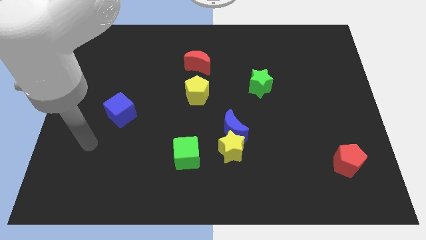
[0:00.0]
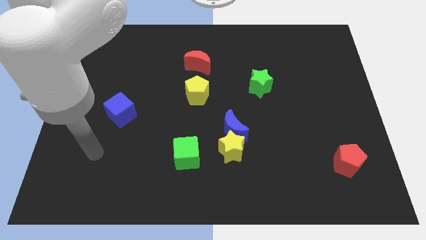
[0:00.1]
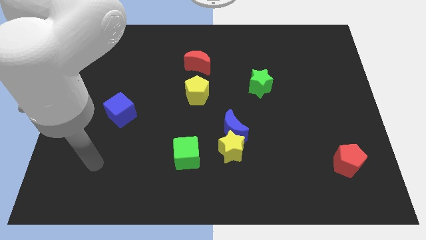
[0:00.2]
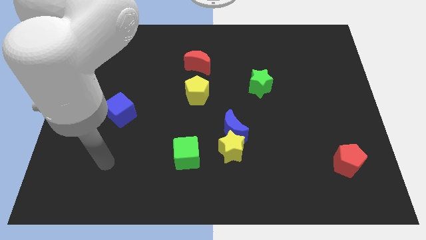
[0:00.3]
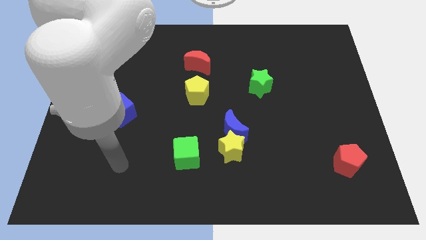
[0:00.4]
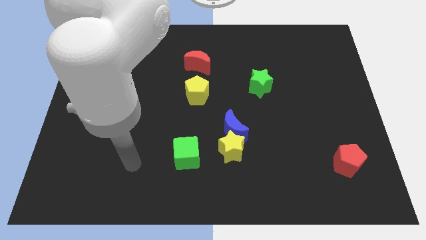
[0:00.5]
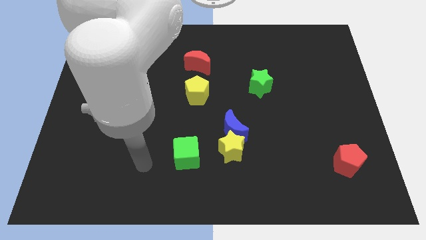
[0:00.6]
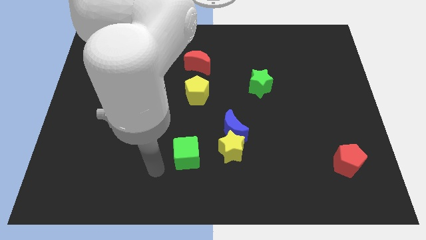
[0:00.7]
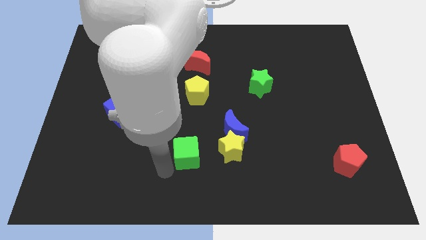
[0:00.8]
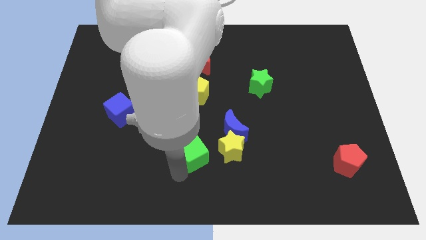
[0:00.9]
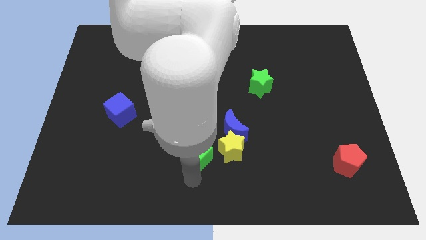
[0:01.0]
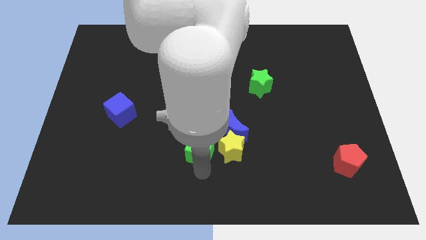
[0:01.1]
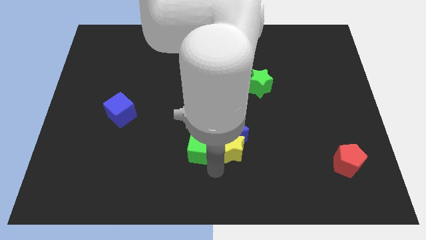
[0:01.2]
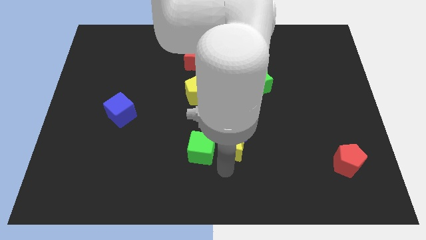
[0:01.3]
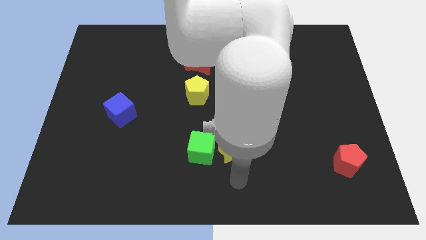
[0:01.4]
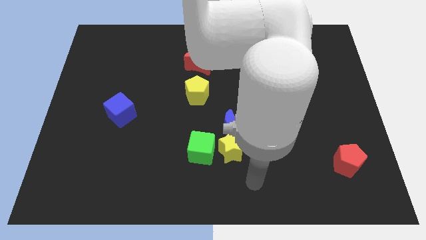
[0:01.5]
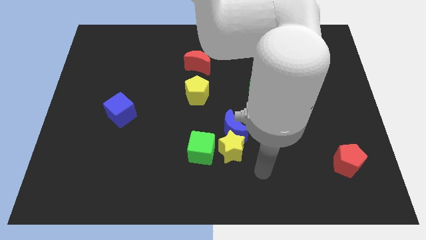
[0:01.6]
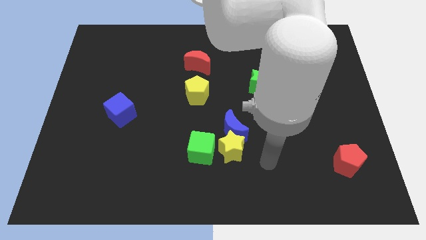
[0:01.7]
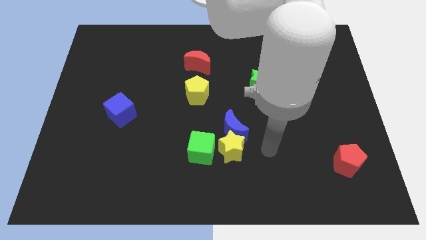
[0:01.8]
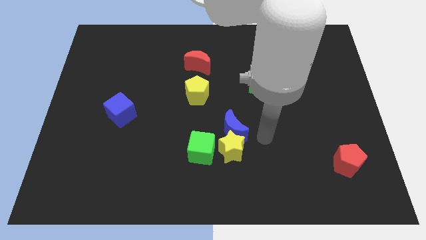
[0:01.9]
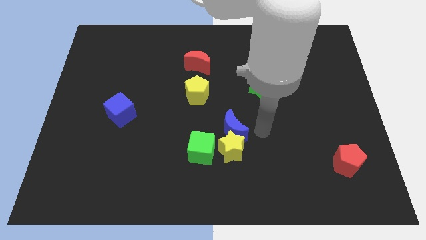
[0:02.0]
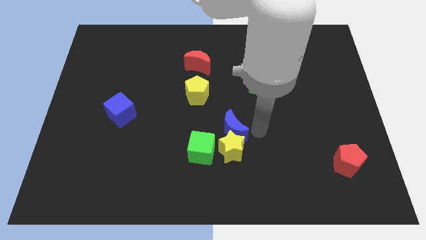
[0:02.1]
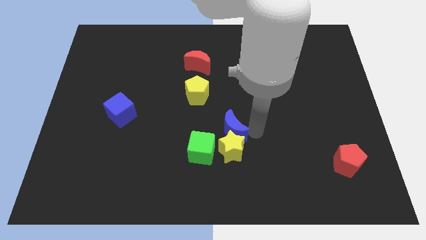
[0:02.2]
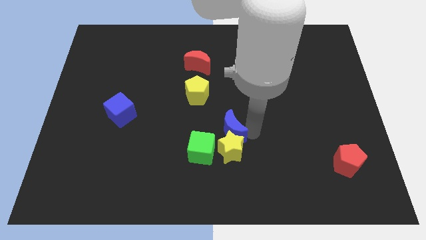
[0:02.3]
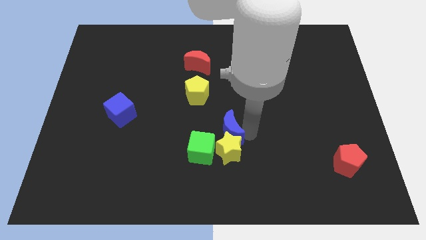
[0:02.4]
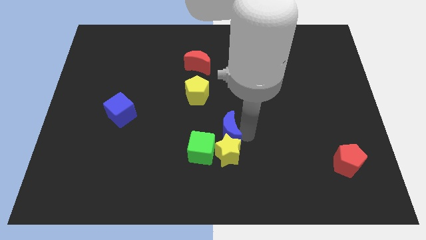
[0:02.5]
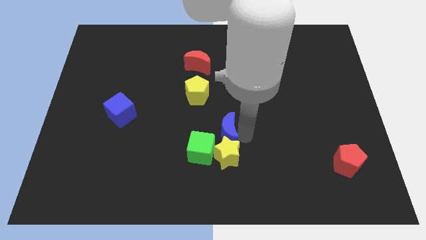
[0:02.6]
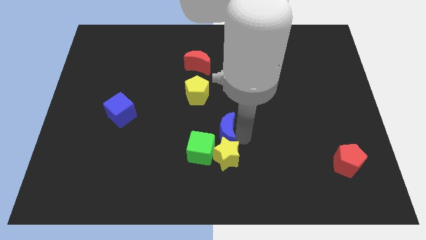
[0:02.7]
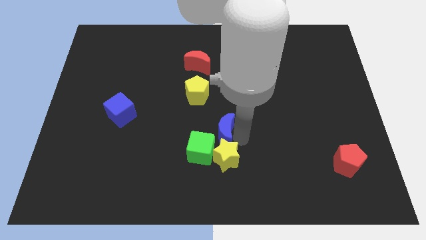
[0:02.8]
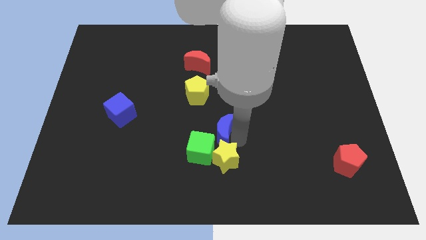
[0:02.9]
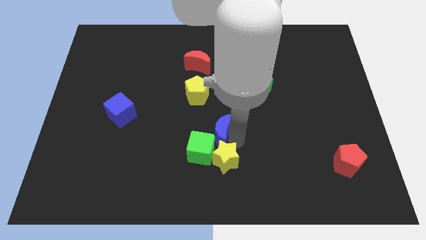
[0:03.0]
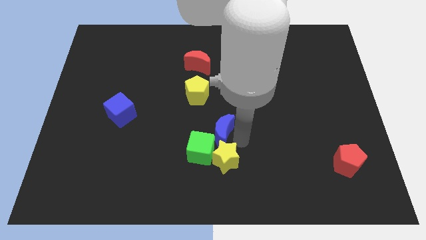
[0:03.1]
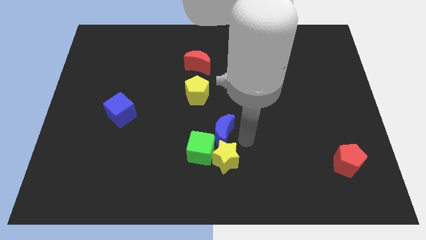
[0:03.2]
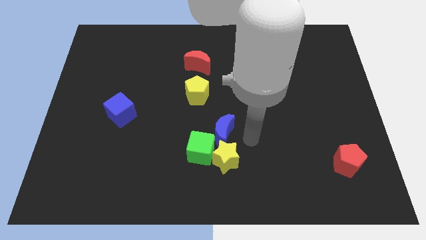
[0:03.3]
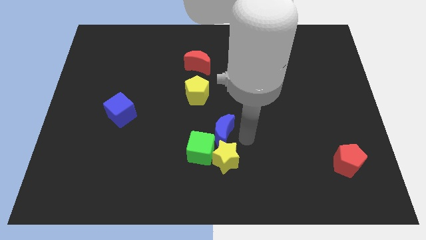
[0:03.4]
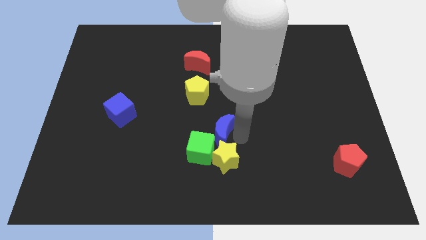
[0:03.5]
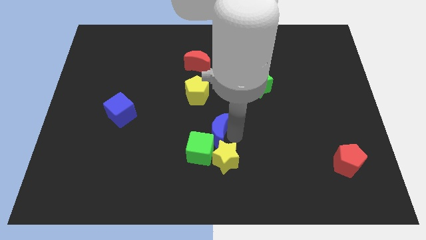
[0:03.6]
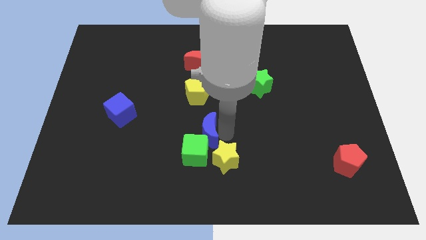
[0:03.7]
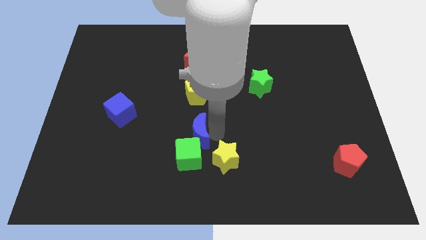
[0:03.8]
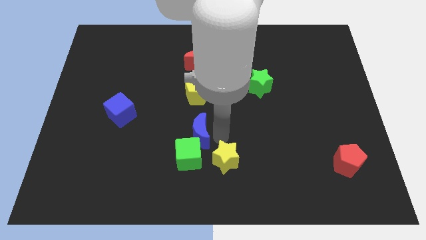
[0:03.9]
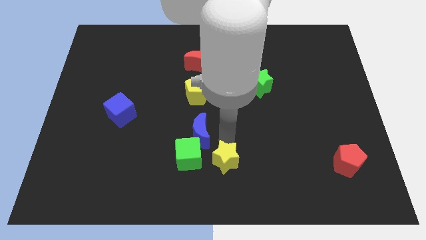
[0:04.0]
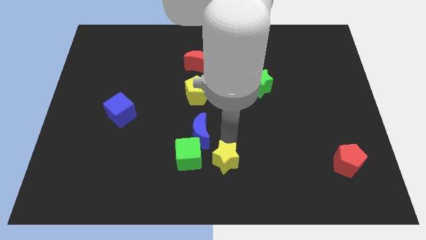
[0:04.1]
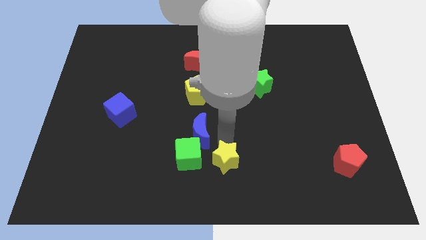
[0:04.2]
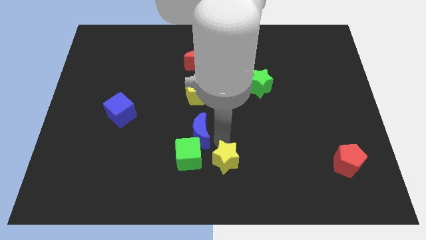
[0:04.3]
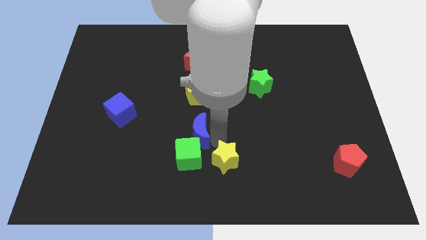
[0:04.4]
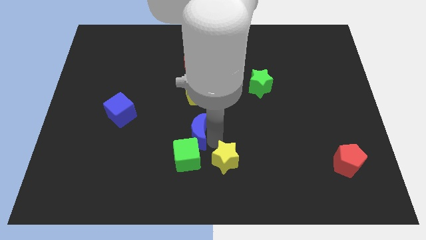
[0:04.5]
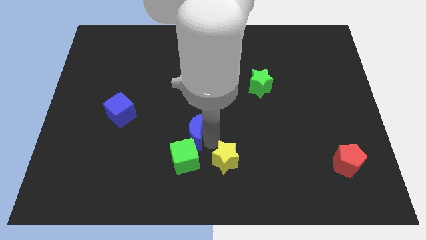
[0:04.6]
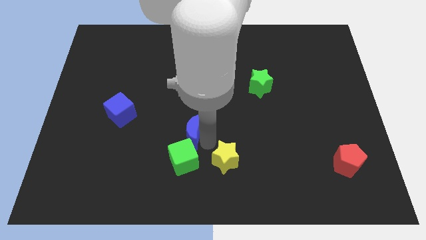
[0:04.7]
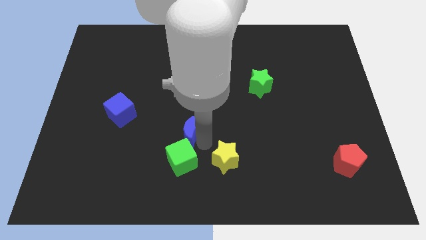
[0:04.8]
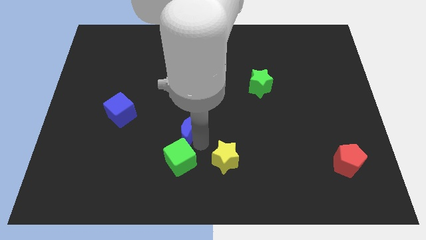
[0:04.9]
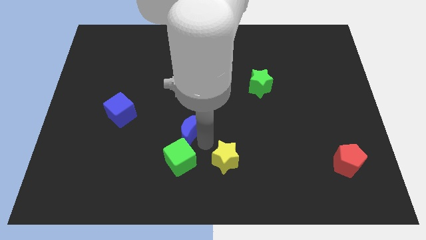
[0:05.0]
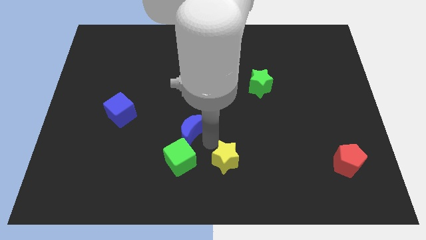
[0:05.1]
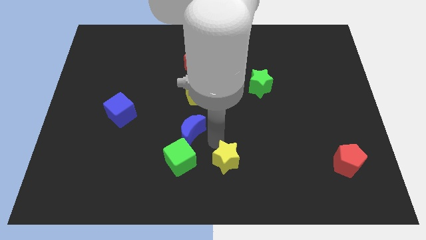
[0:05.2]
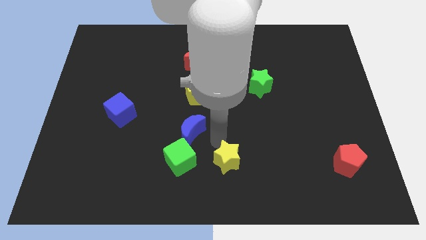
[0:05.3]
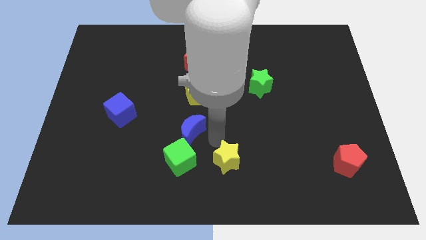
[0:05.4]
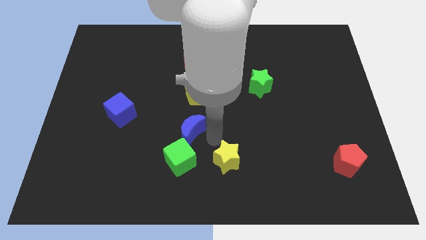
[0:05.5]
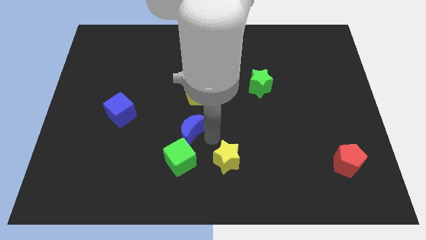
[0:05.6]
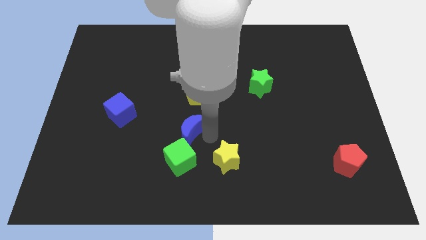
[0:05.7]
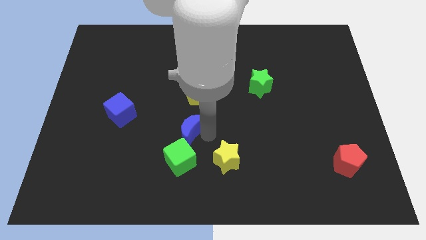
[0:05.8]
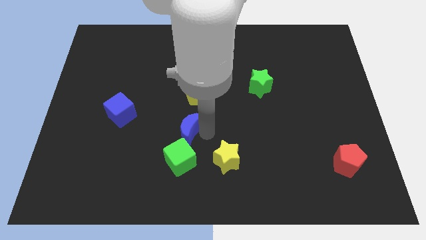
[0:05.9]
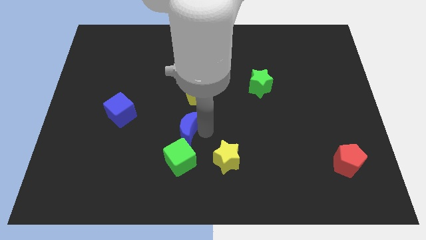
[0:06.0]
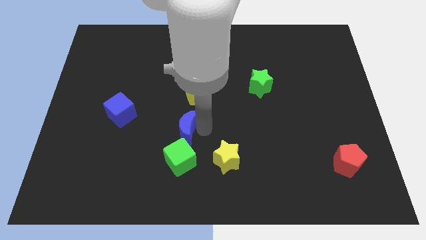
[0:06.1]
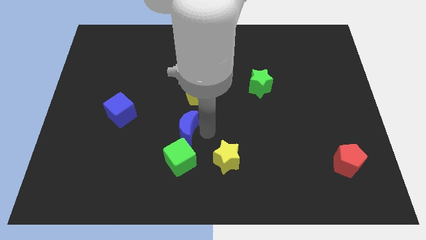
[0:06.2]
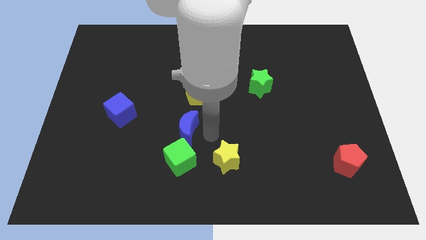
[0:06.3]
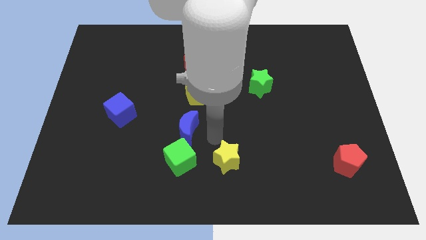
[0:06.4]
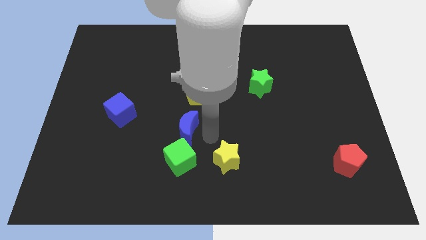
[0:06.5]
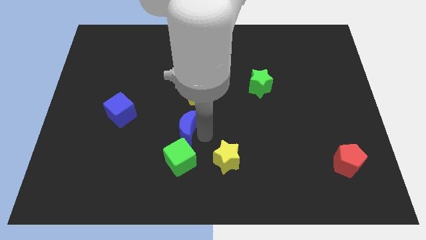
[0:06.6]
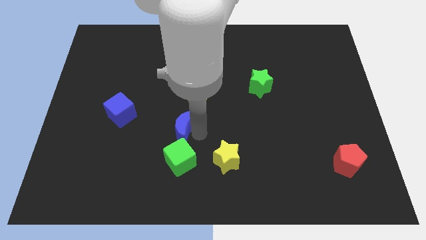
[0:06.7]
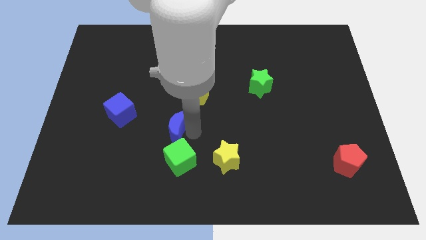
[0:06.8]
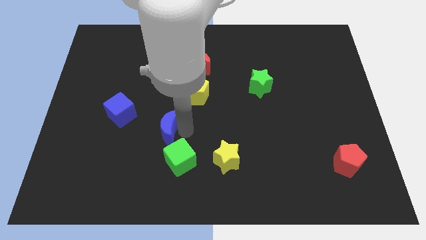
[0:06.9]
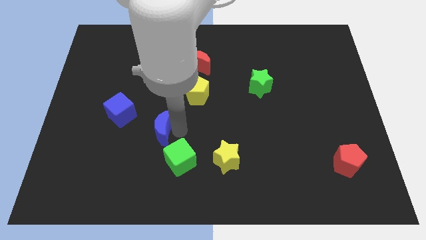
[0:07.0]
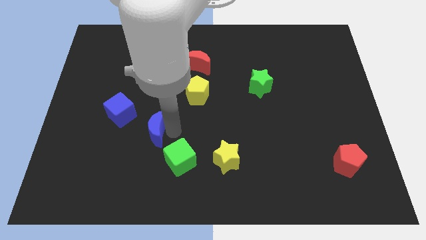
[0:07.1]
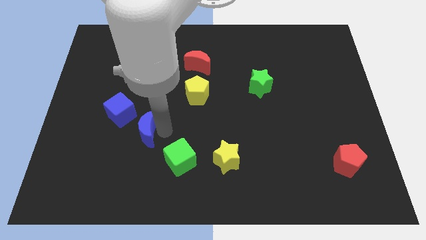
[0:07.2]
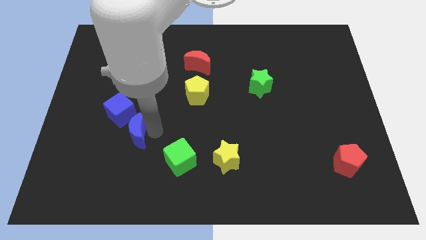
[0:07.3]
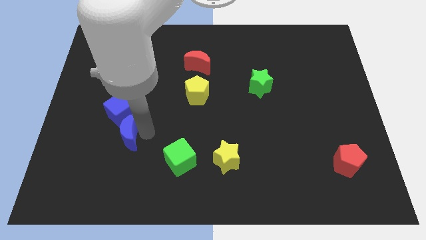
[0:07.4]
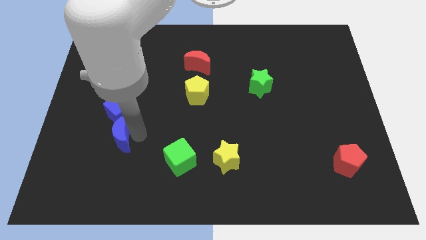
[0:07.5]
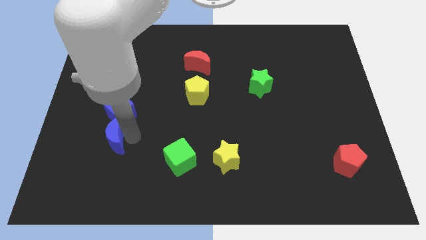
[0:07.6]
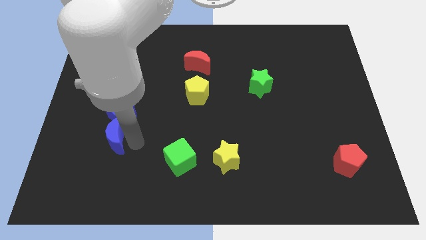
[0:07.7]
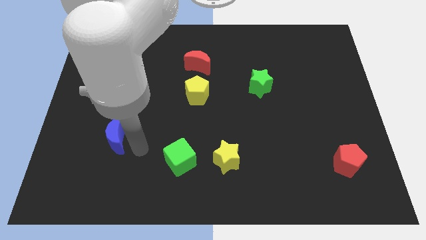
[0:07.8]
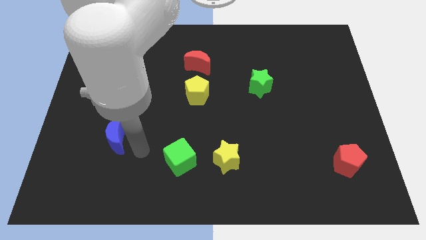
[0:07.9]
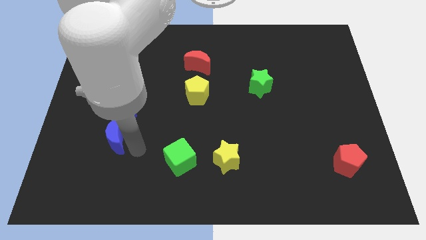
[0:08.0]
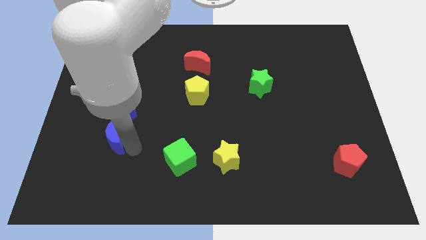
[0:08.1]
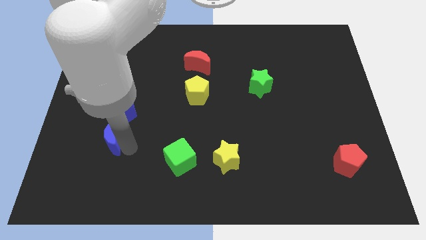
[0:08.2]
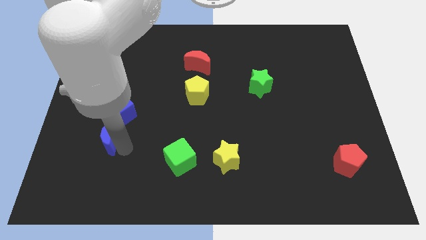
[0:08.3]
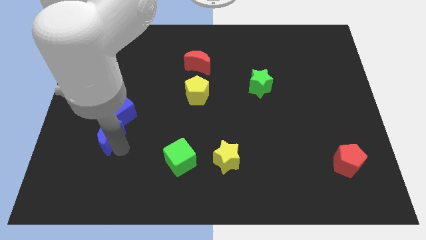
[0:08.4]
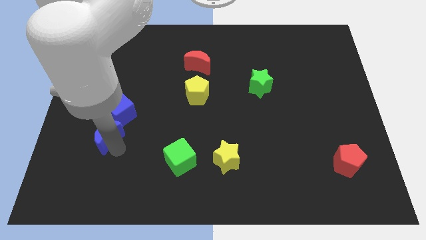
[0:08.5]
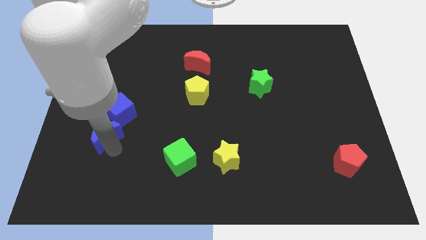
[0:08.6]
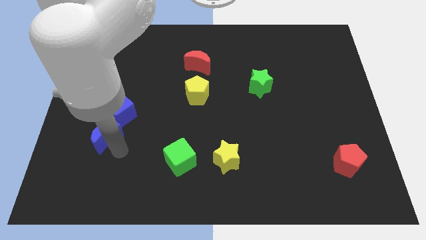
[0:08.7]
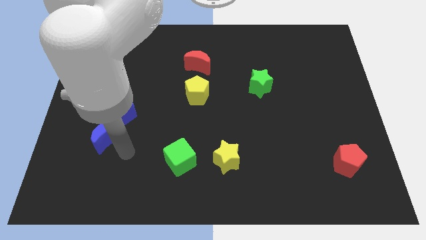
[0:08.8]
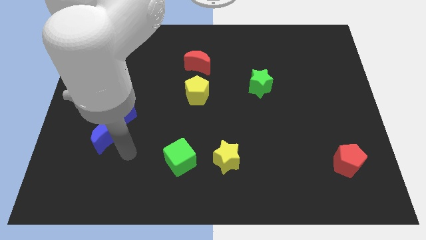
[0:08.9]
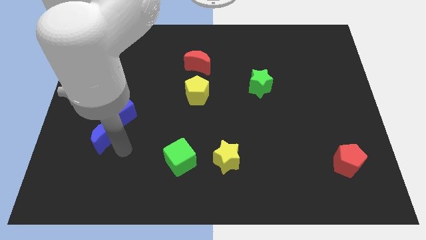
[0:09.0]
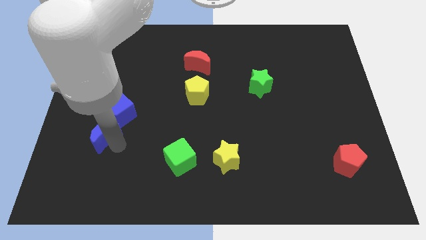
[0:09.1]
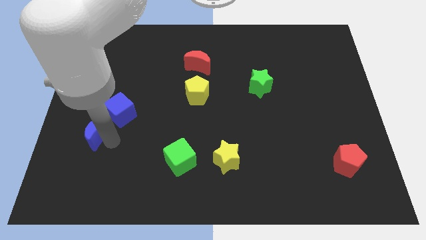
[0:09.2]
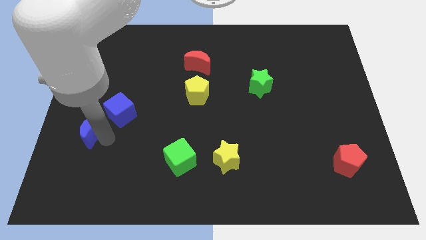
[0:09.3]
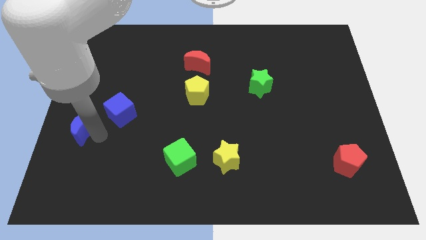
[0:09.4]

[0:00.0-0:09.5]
move the blue moon to the center left
